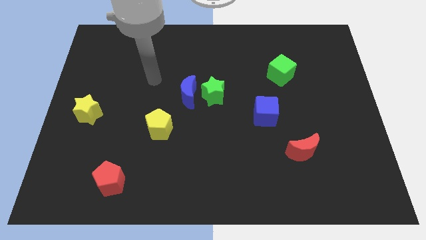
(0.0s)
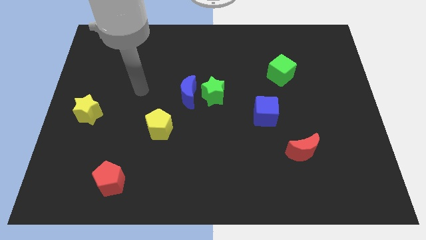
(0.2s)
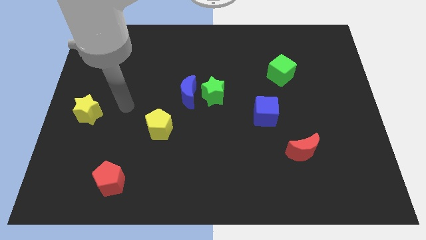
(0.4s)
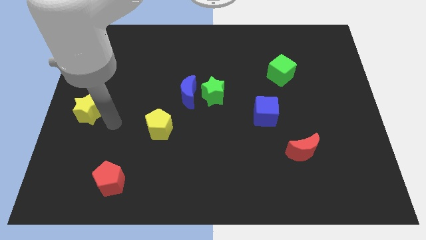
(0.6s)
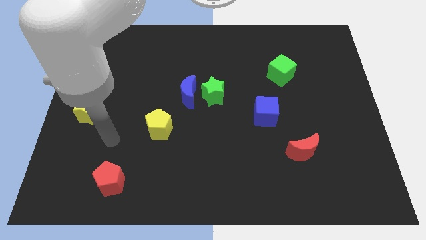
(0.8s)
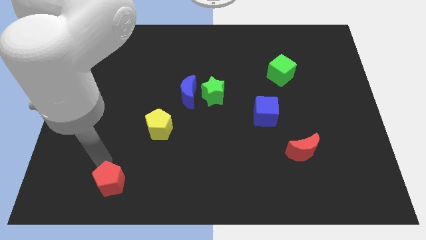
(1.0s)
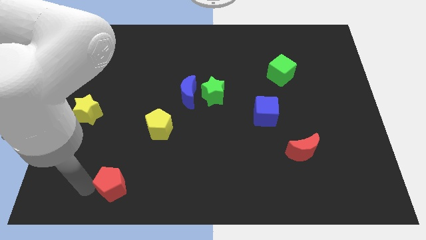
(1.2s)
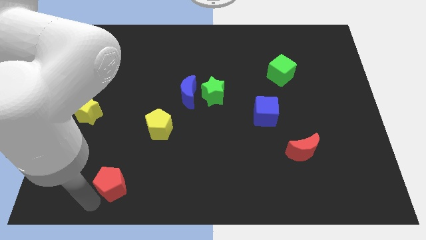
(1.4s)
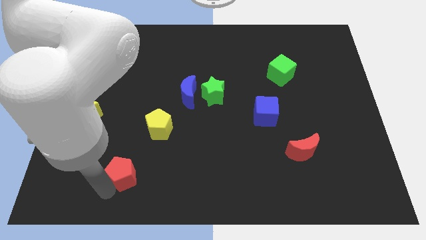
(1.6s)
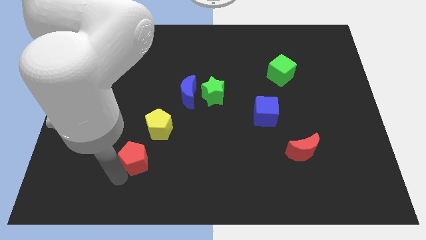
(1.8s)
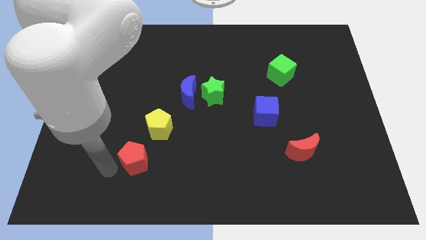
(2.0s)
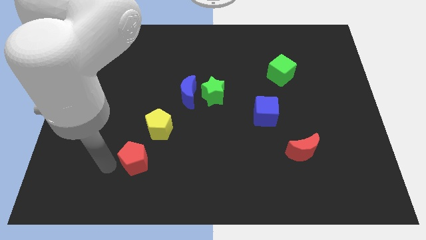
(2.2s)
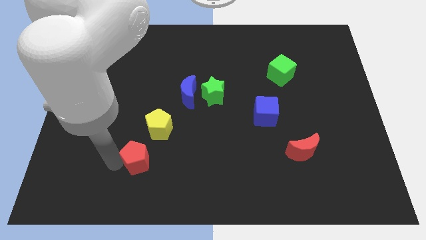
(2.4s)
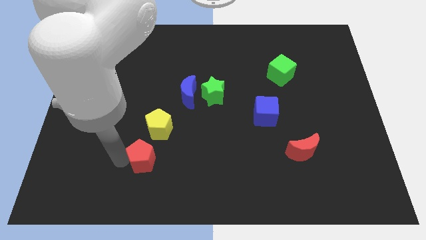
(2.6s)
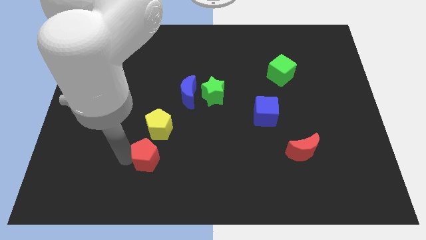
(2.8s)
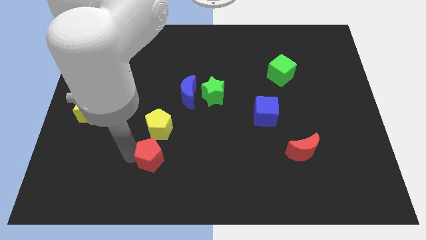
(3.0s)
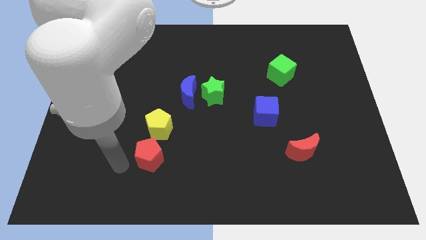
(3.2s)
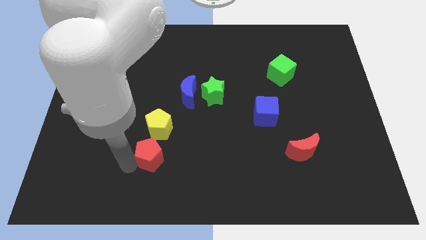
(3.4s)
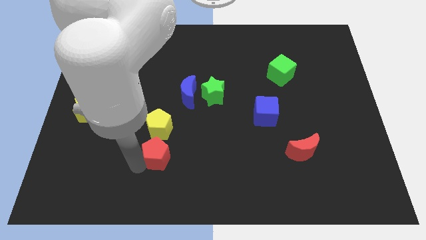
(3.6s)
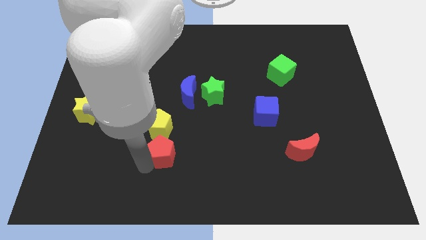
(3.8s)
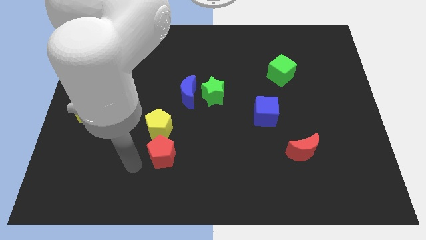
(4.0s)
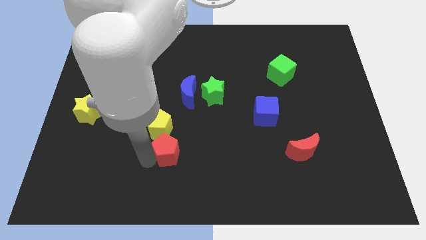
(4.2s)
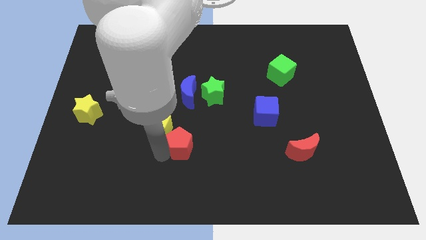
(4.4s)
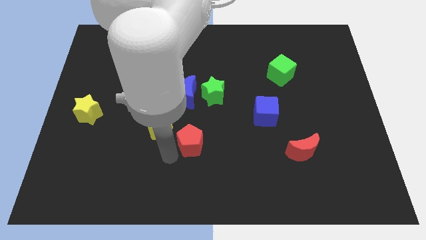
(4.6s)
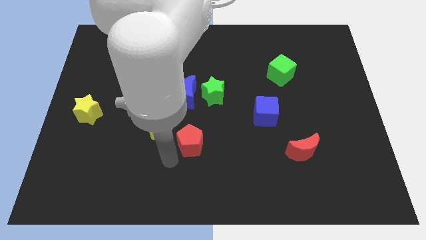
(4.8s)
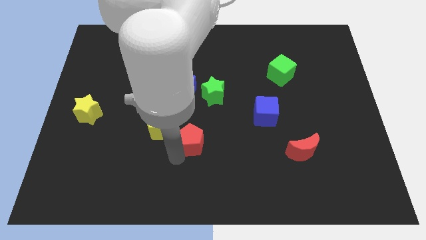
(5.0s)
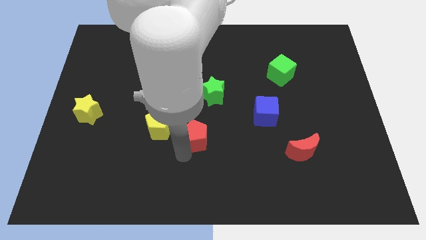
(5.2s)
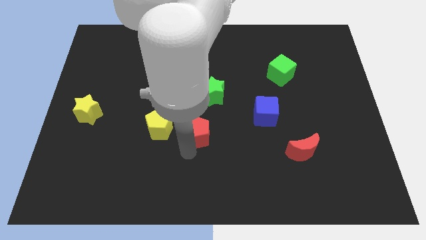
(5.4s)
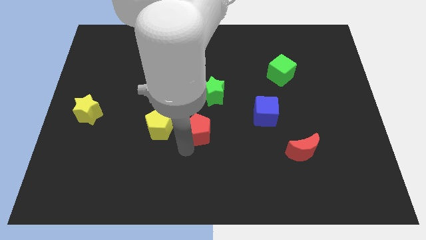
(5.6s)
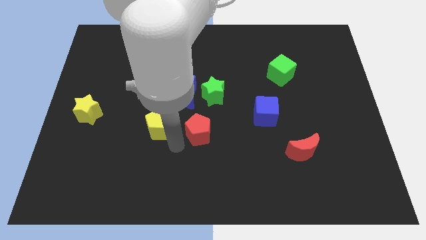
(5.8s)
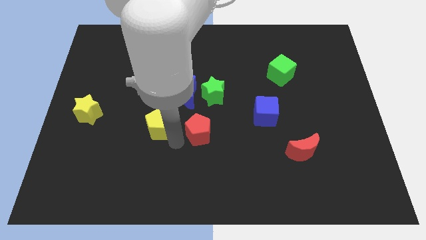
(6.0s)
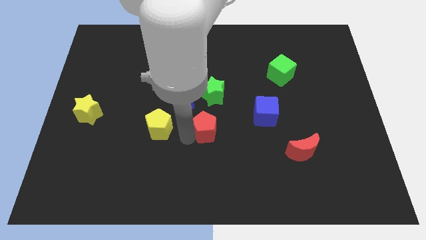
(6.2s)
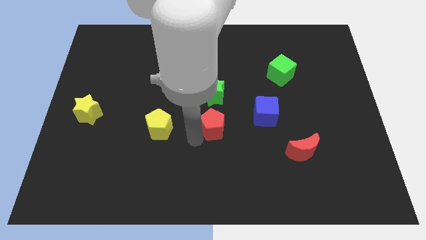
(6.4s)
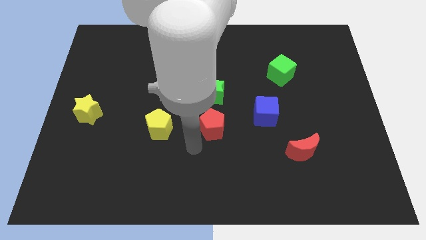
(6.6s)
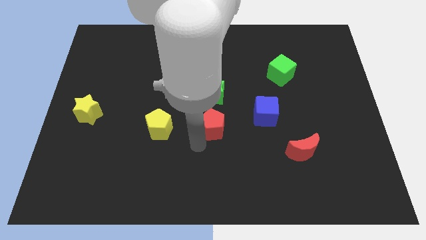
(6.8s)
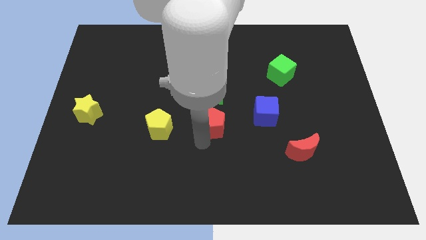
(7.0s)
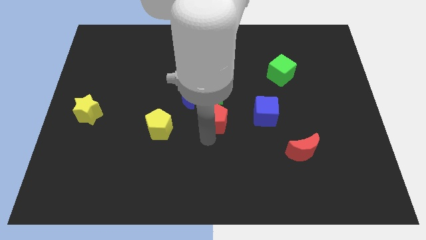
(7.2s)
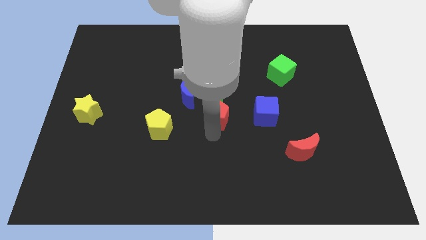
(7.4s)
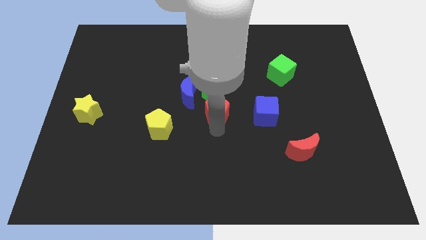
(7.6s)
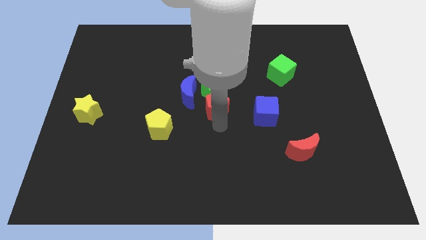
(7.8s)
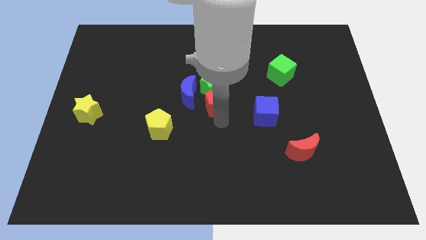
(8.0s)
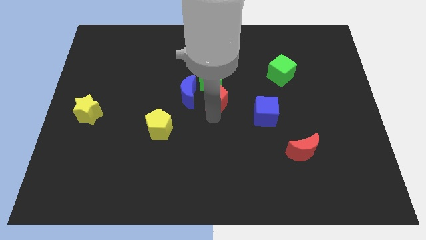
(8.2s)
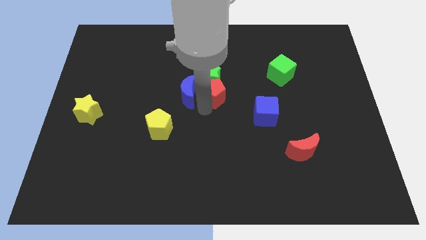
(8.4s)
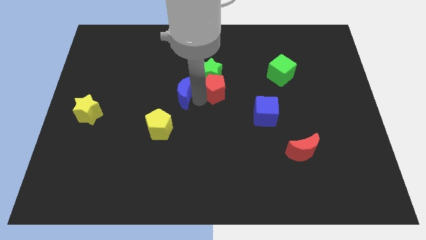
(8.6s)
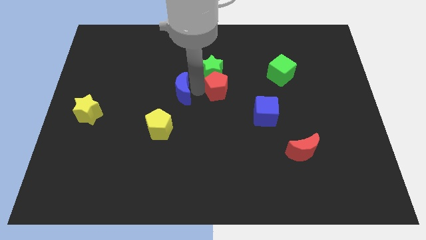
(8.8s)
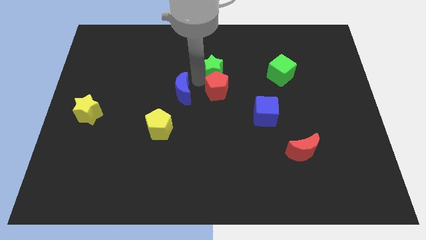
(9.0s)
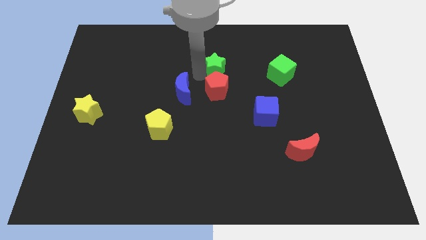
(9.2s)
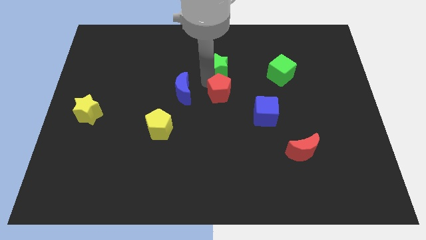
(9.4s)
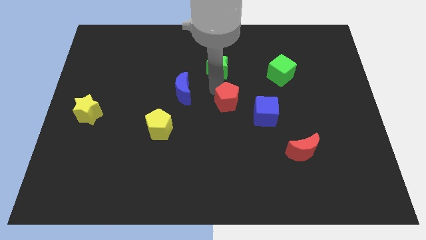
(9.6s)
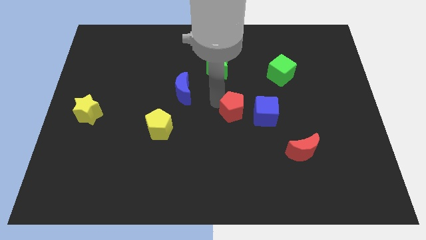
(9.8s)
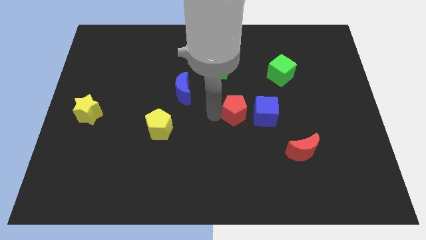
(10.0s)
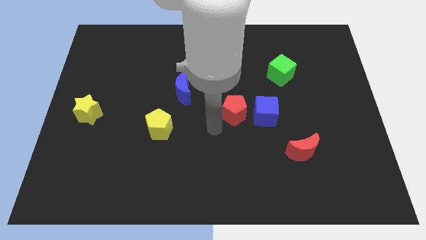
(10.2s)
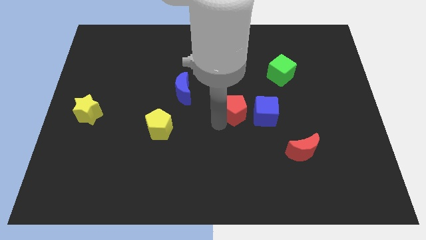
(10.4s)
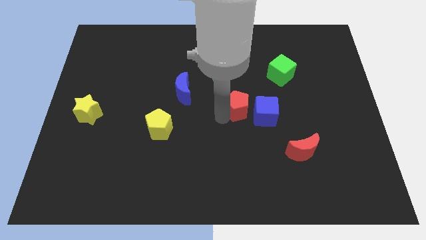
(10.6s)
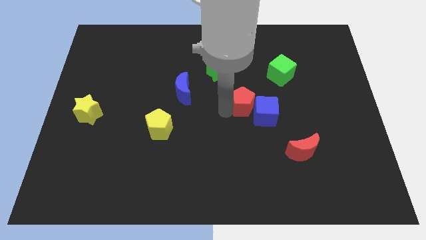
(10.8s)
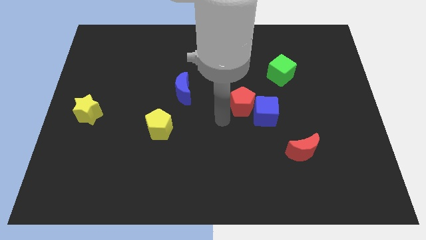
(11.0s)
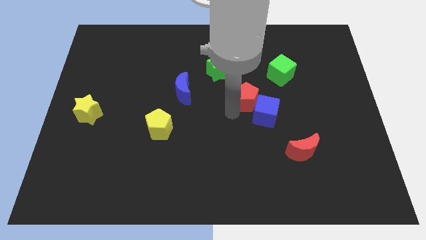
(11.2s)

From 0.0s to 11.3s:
put the red pentagon diagonally down and to the left of the green cube

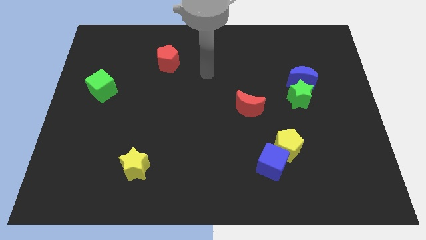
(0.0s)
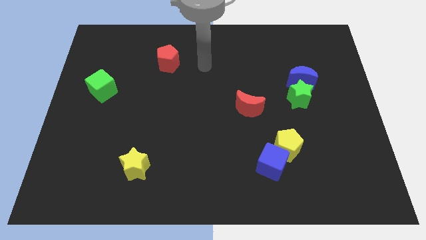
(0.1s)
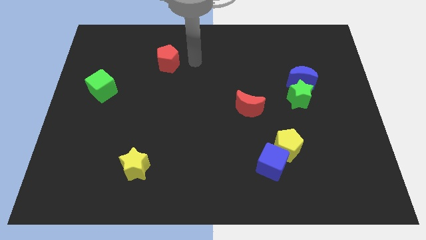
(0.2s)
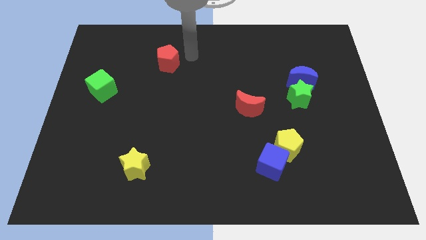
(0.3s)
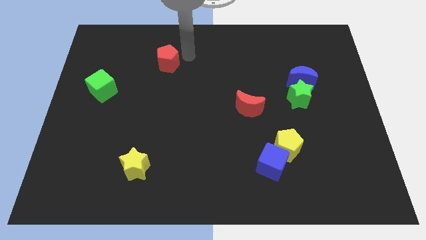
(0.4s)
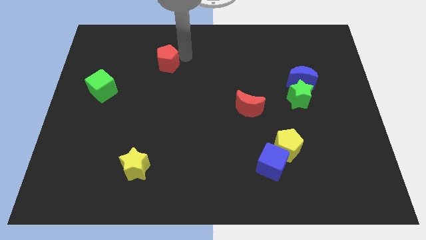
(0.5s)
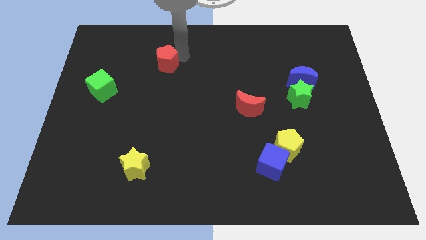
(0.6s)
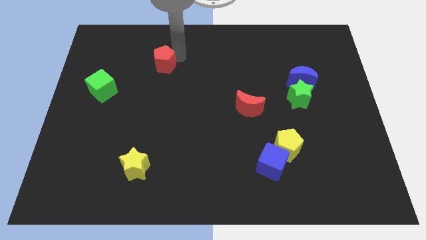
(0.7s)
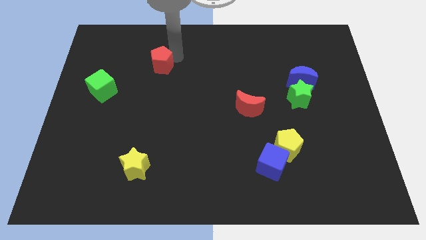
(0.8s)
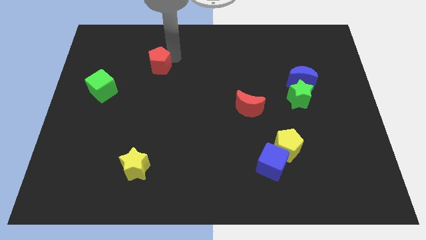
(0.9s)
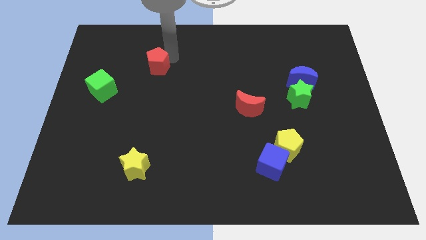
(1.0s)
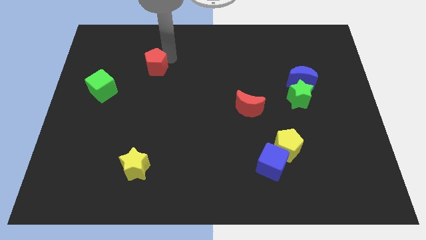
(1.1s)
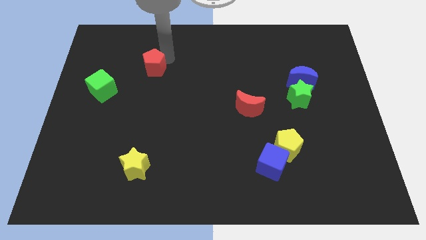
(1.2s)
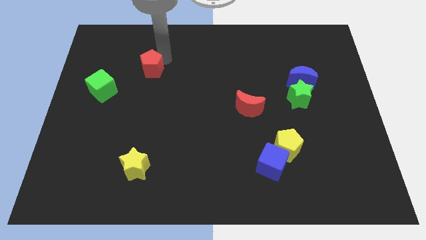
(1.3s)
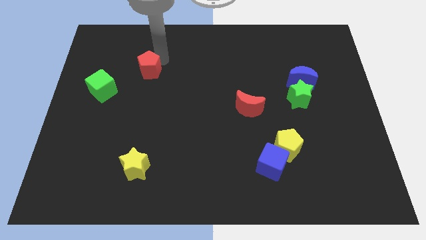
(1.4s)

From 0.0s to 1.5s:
move the red pentagon to the top right of the green cube
